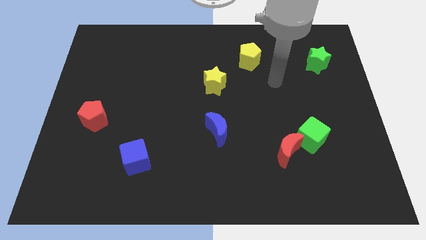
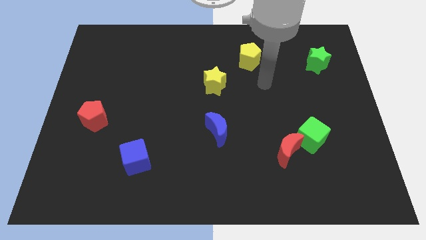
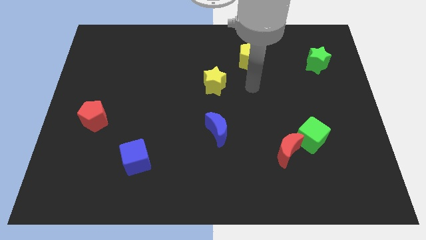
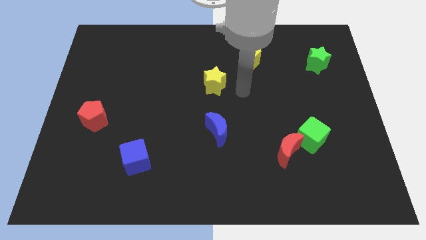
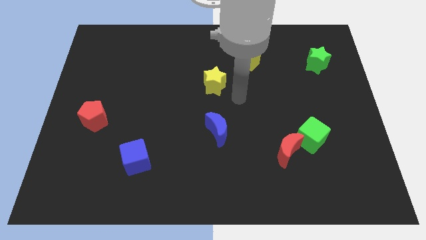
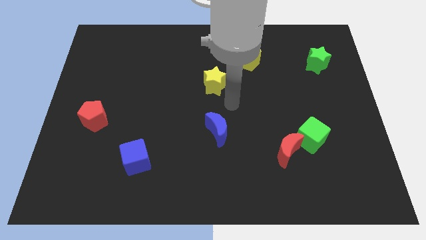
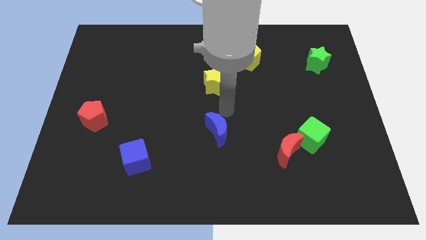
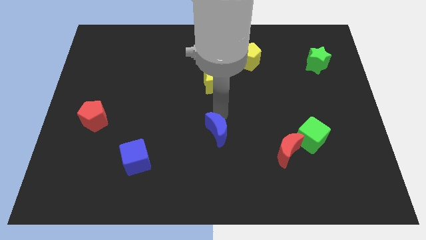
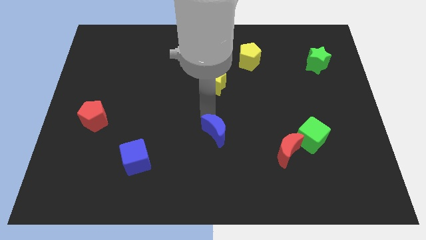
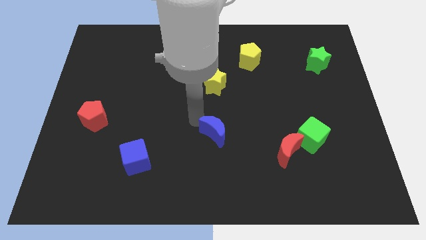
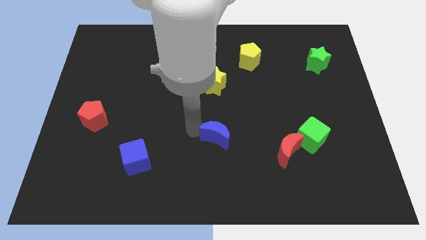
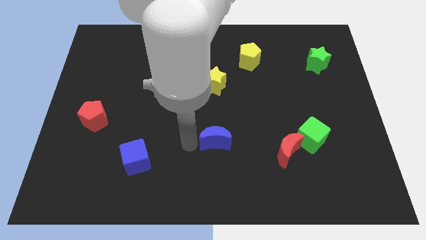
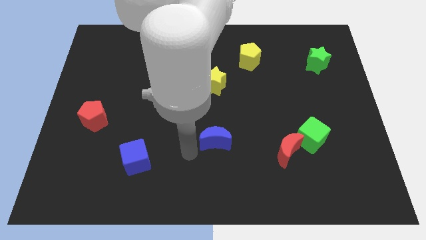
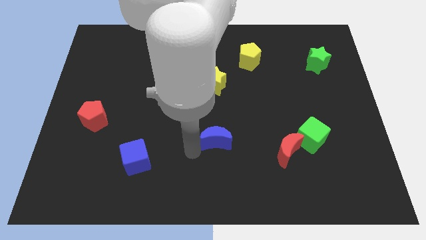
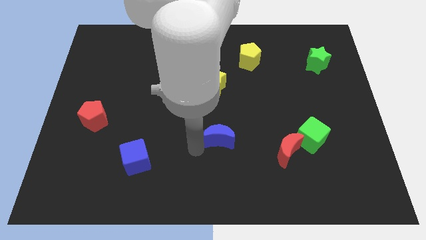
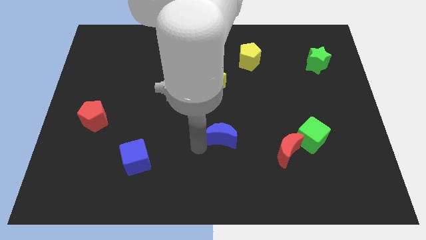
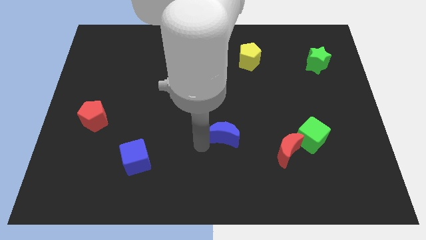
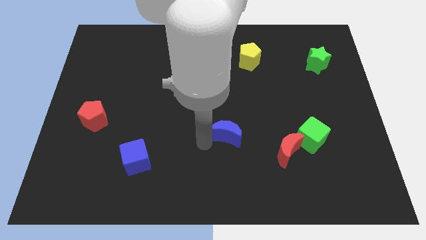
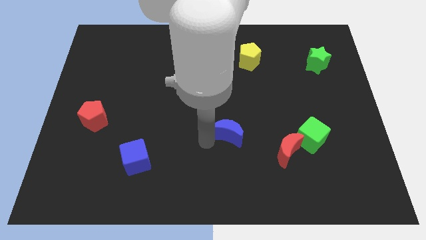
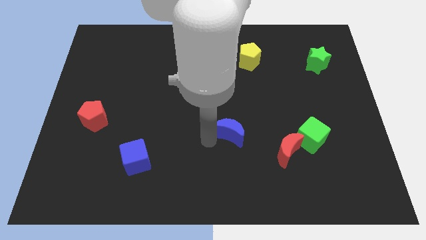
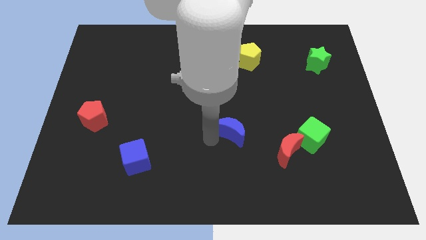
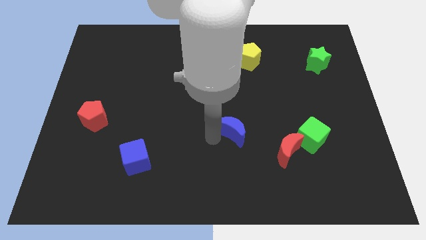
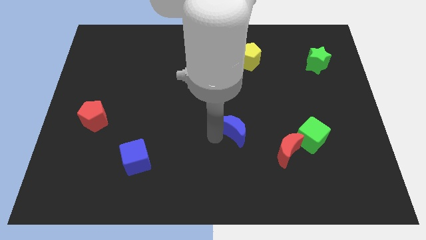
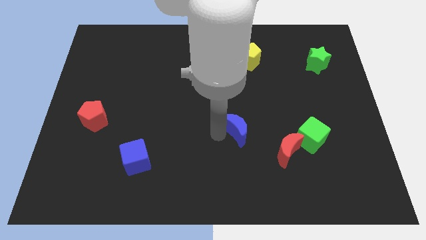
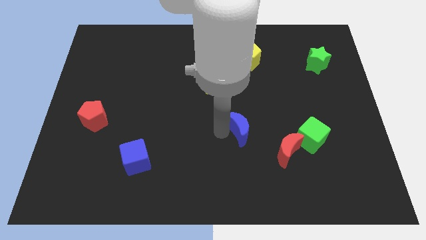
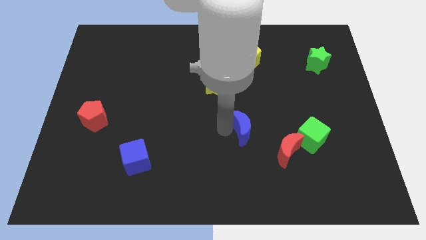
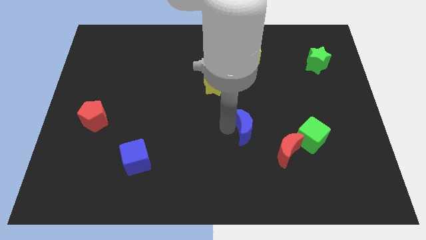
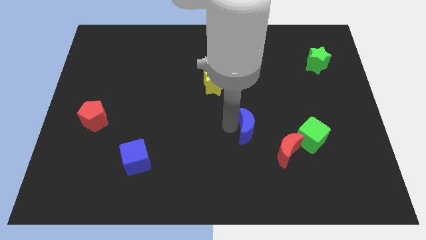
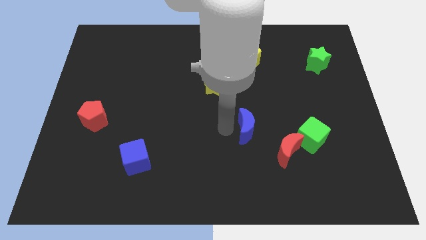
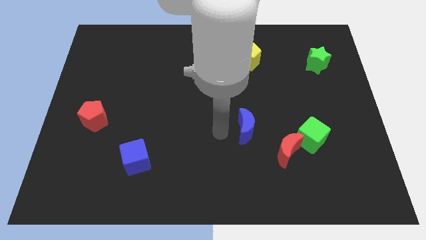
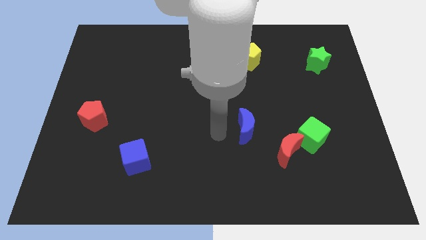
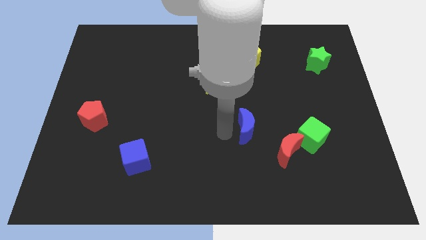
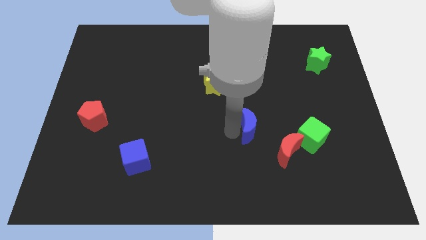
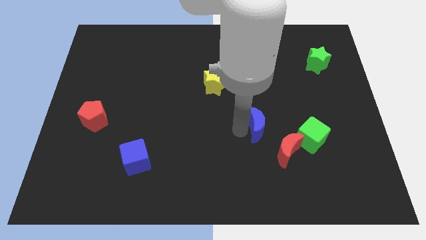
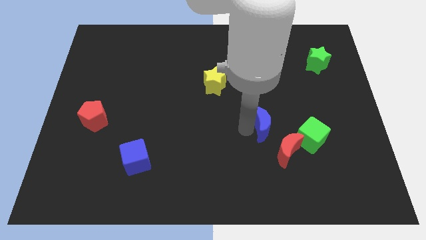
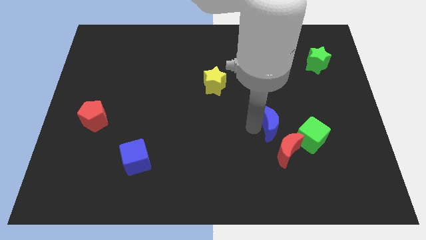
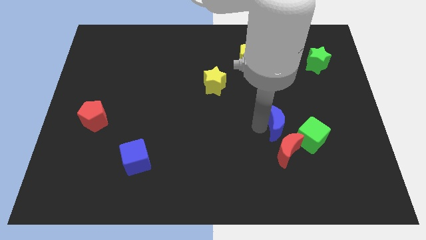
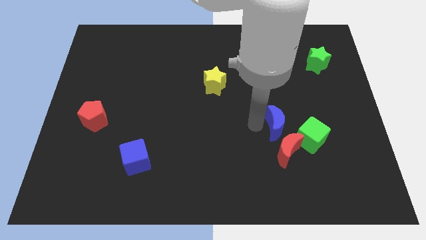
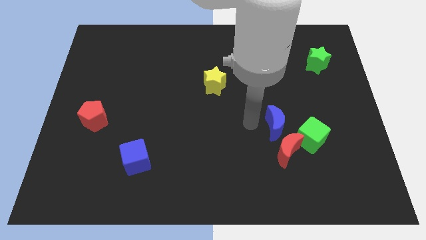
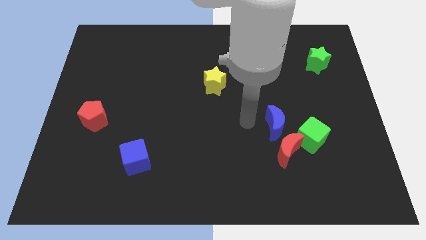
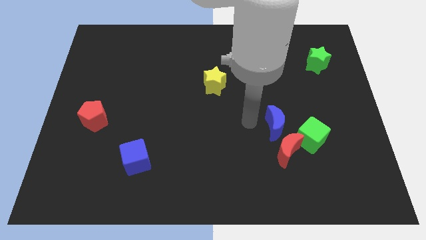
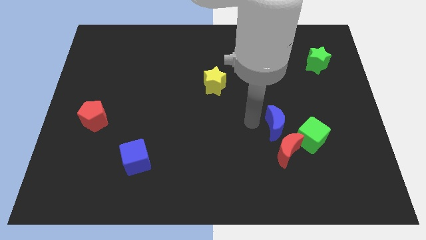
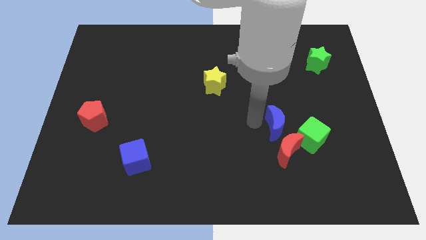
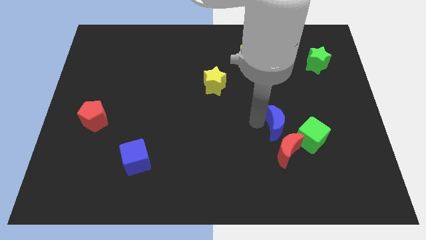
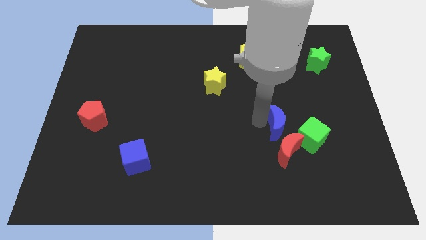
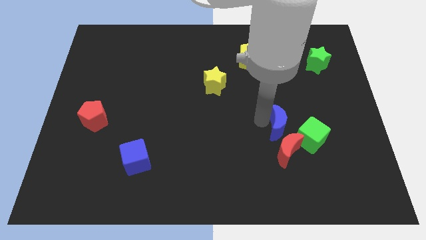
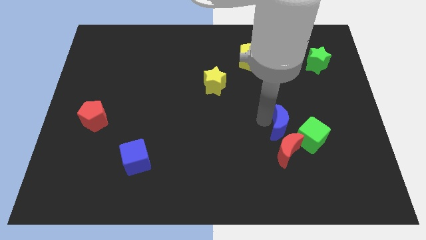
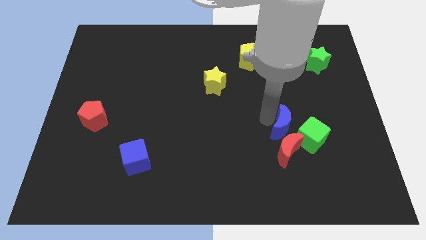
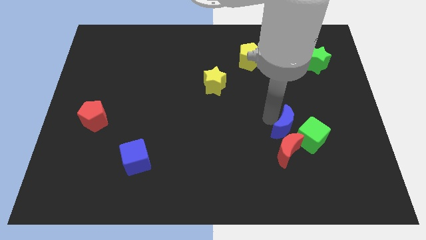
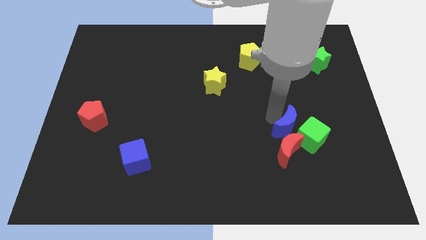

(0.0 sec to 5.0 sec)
slide the blue moon to the green cube

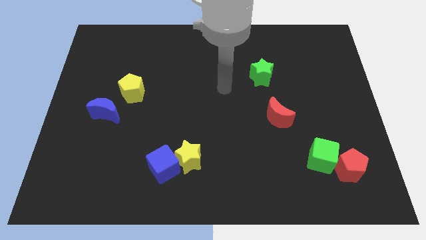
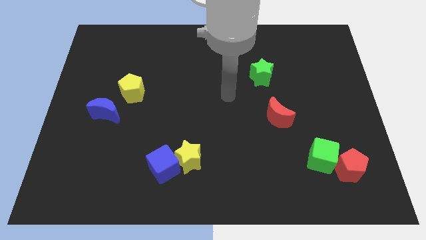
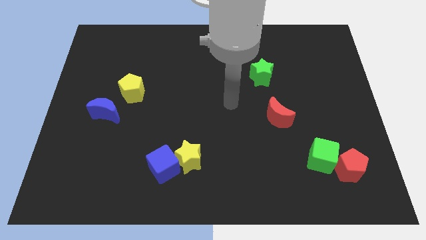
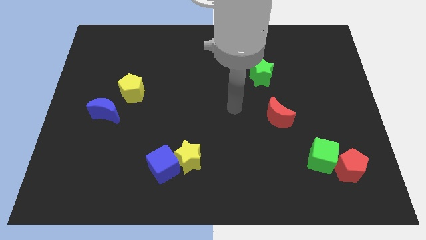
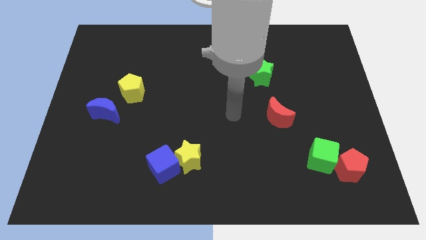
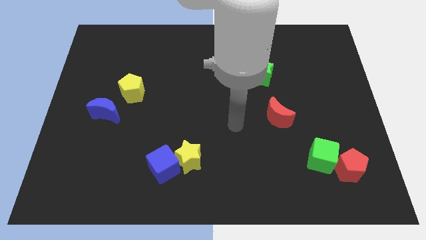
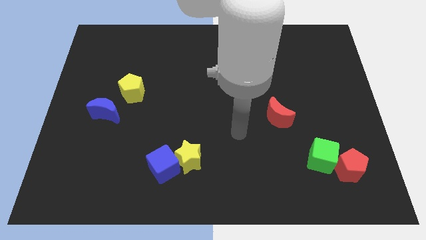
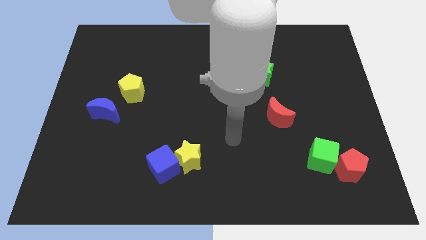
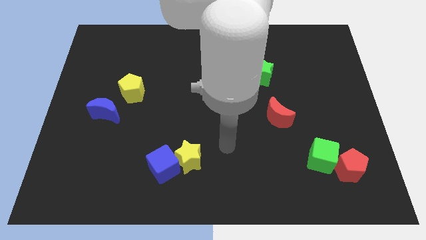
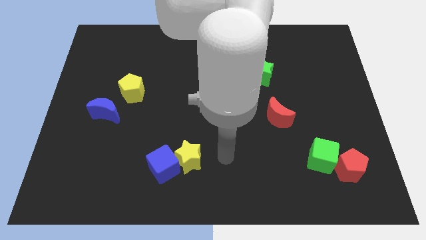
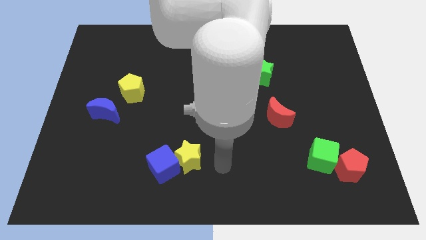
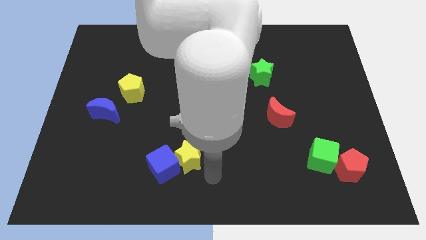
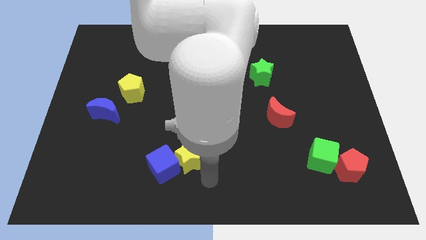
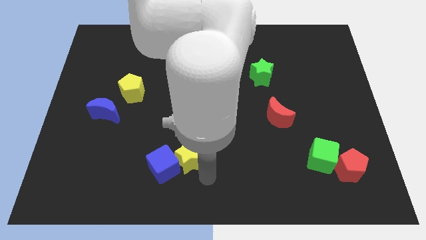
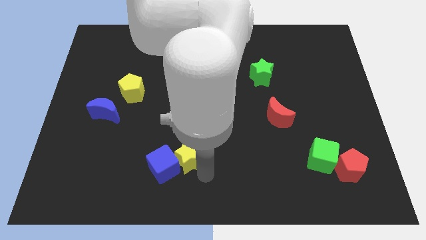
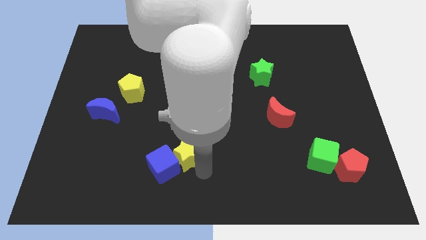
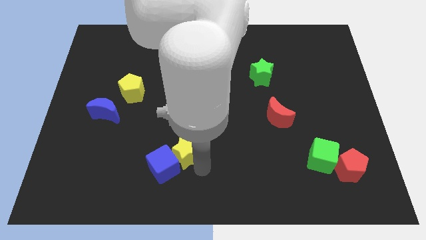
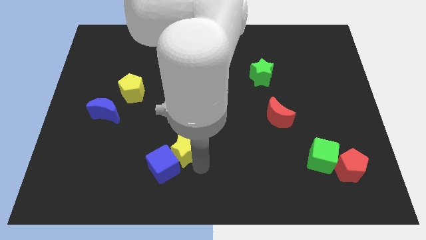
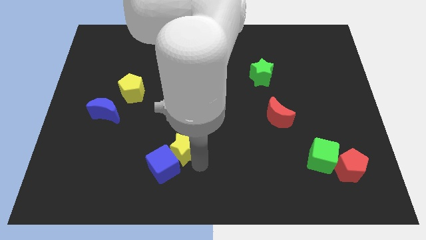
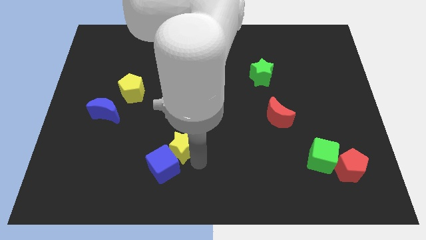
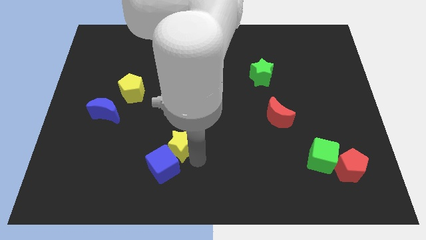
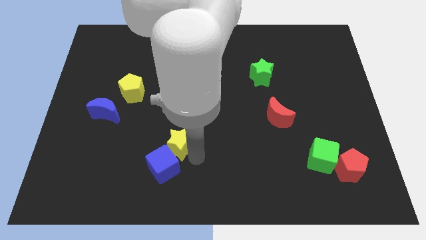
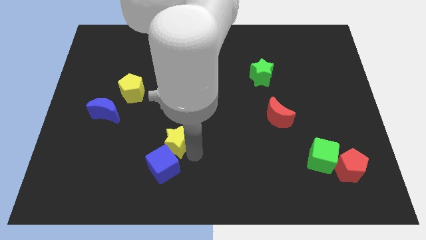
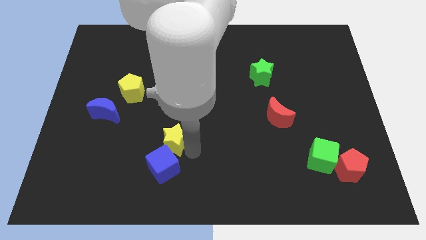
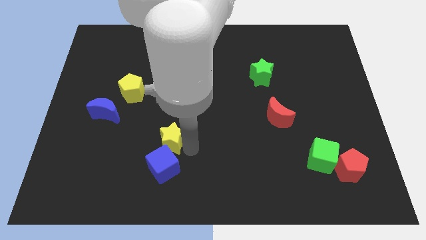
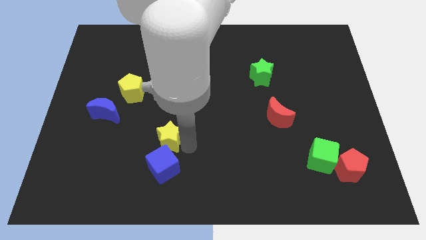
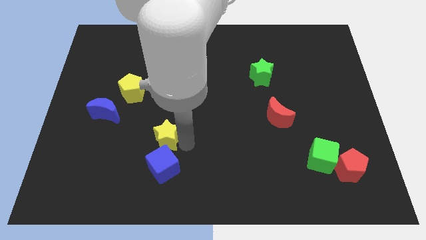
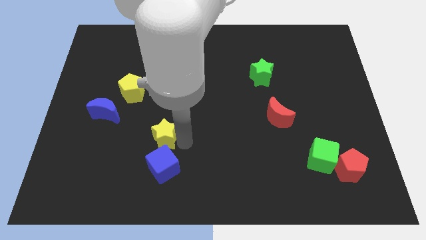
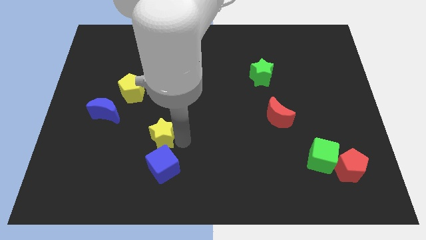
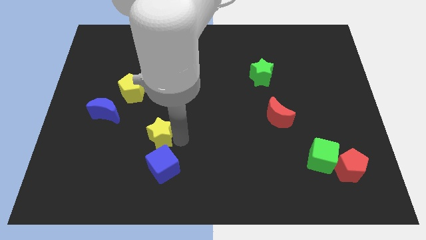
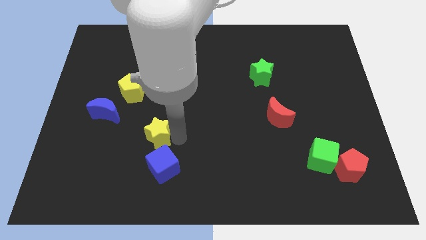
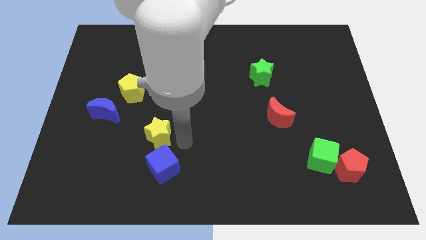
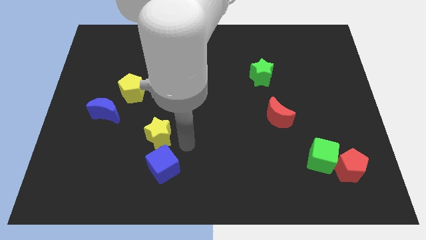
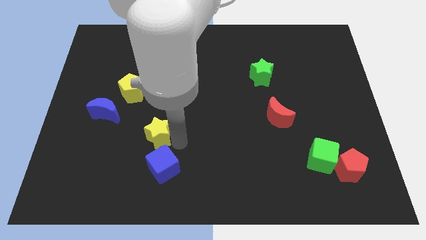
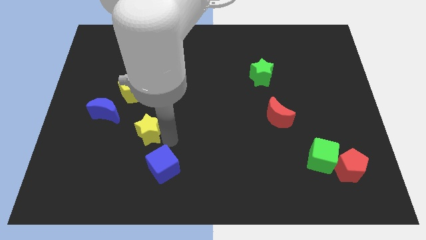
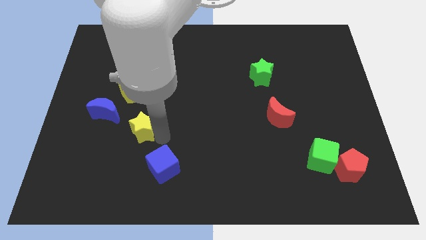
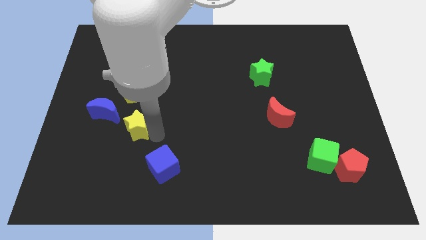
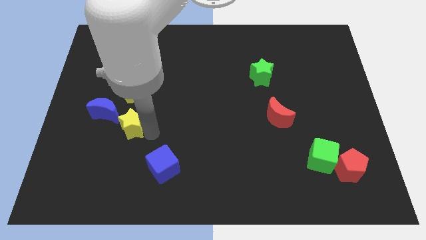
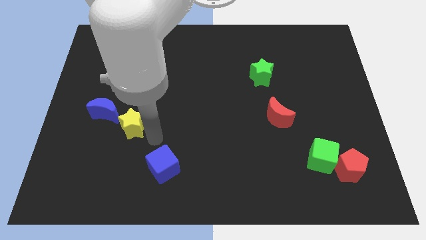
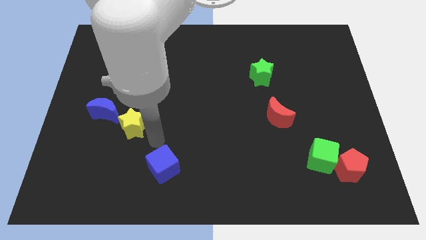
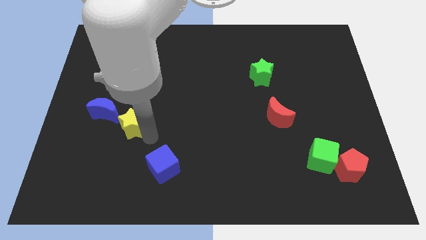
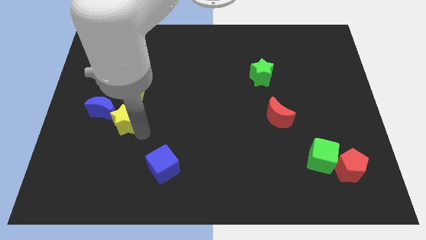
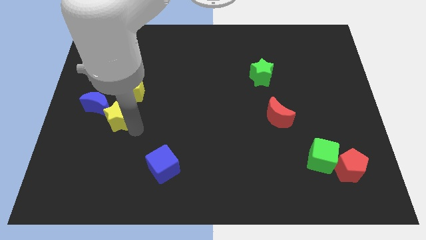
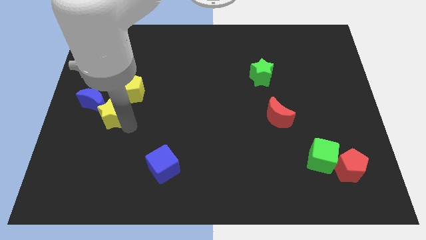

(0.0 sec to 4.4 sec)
put the yellow star close to the blue moon
